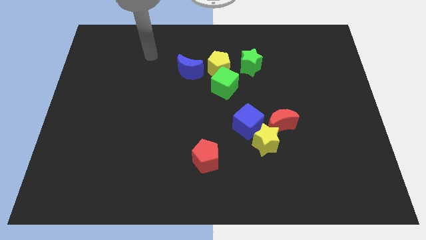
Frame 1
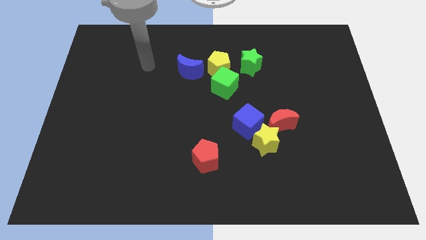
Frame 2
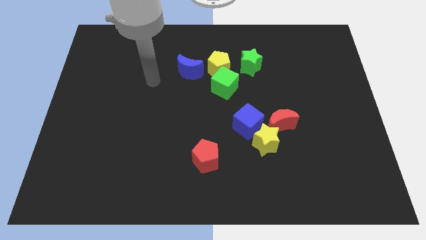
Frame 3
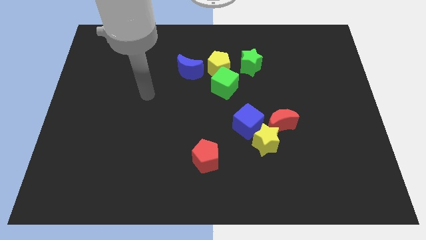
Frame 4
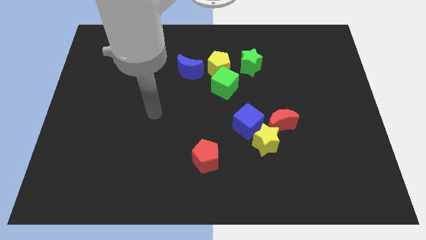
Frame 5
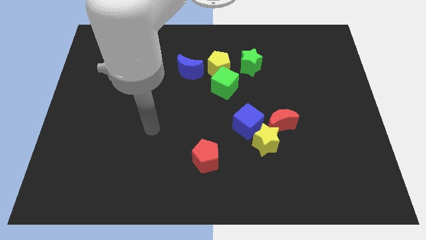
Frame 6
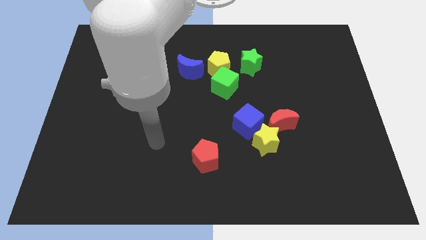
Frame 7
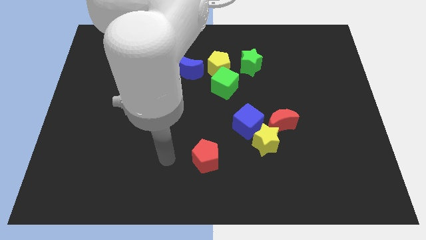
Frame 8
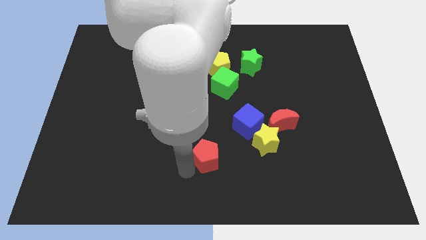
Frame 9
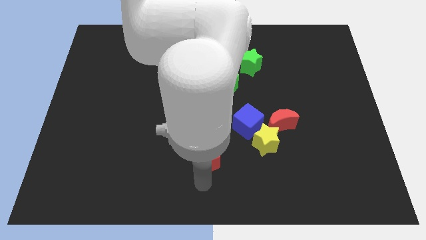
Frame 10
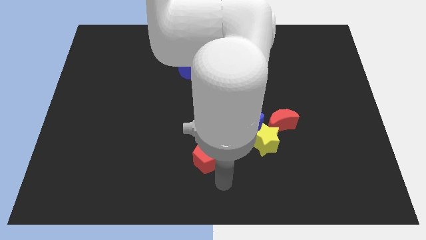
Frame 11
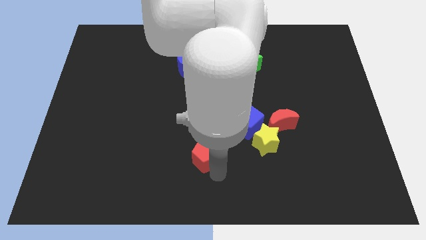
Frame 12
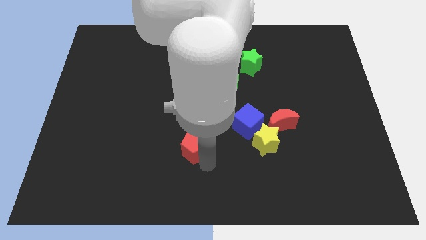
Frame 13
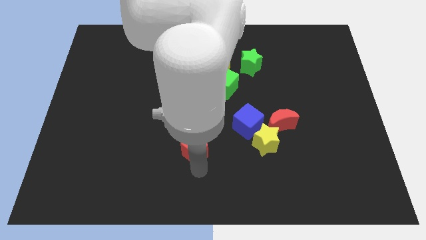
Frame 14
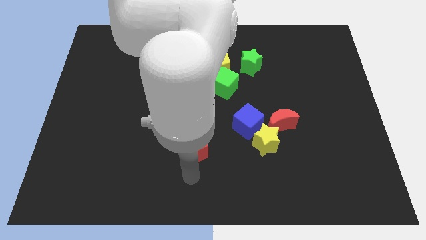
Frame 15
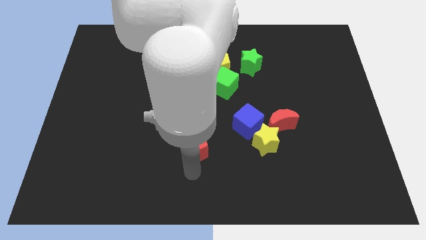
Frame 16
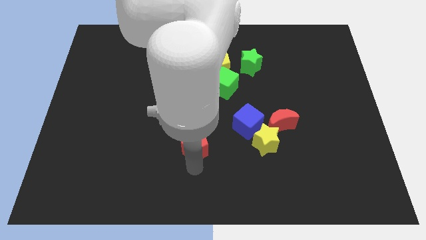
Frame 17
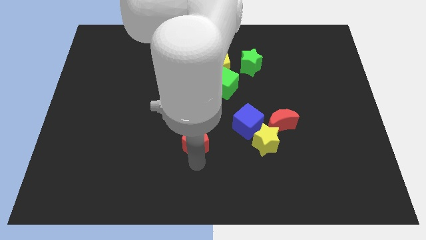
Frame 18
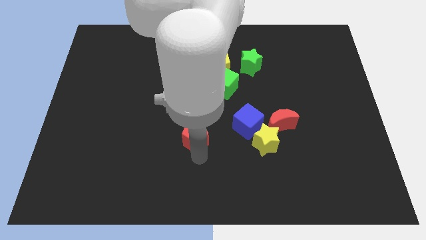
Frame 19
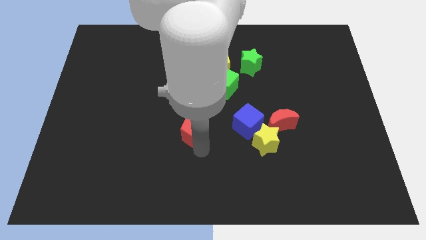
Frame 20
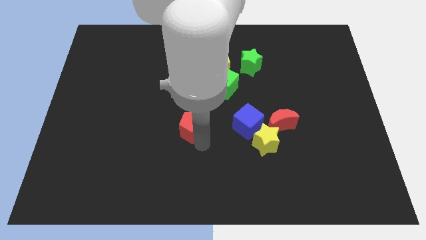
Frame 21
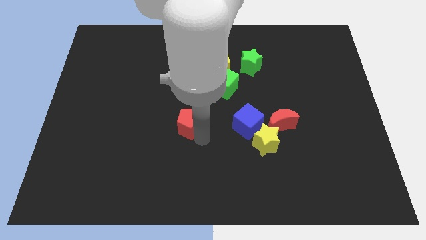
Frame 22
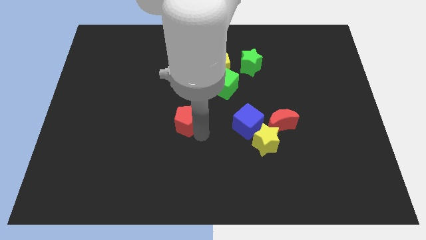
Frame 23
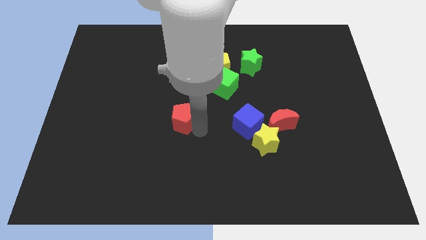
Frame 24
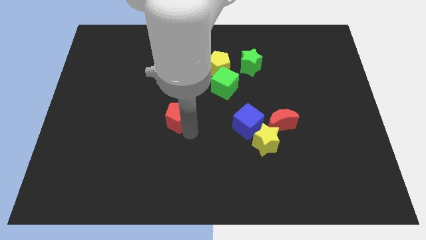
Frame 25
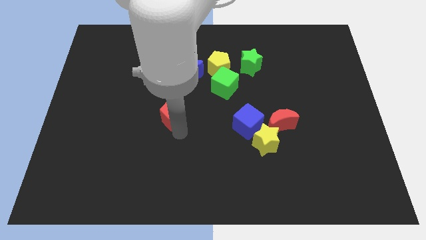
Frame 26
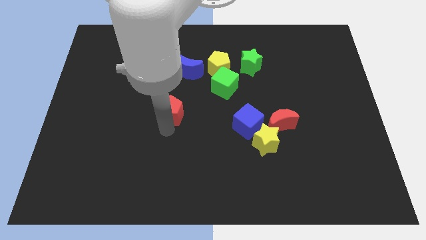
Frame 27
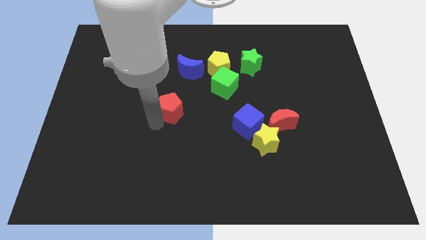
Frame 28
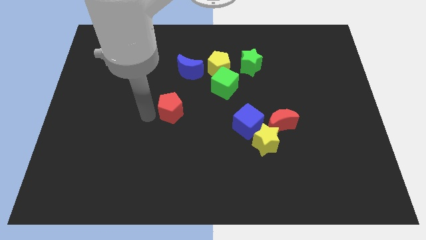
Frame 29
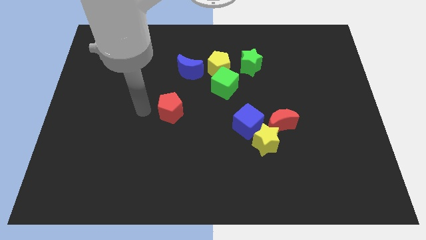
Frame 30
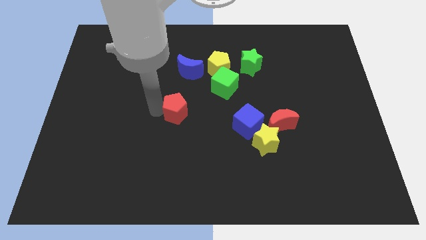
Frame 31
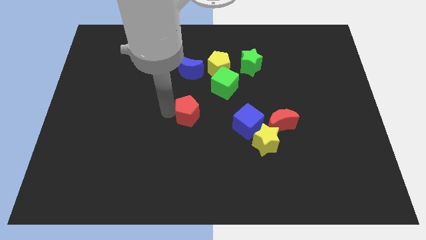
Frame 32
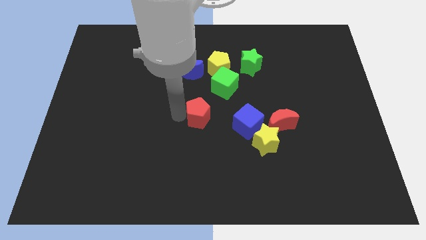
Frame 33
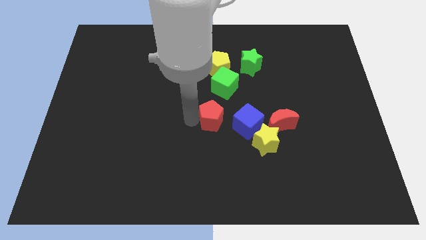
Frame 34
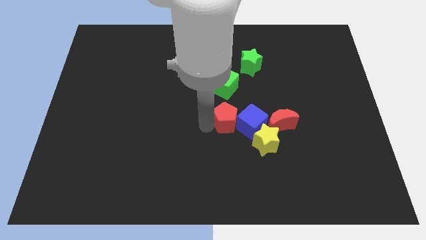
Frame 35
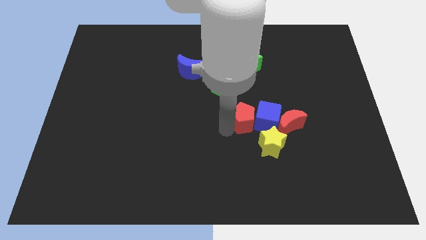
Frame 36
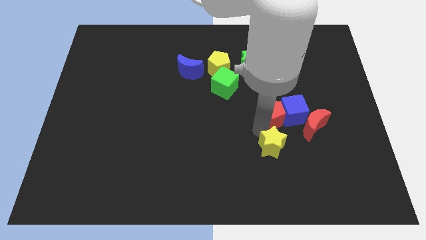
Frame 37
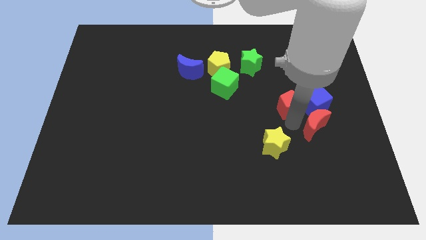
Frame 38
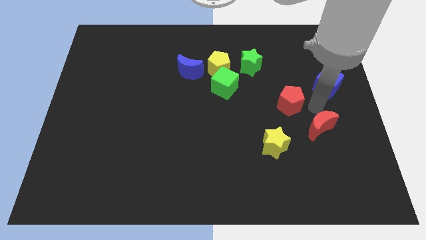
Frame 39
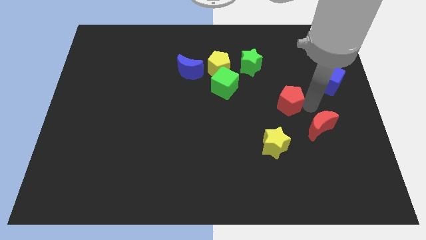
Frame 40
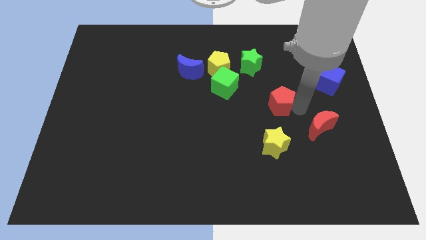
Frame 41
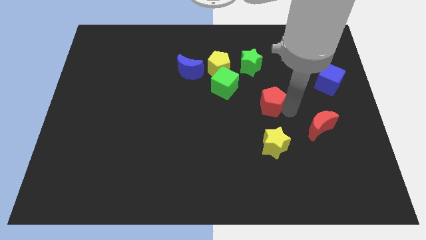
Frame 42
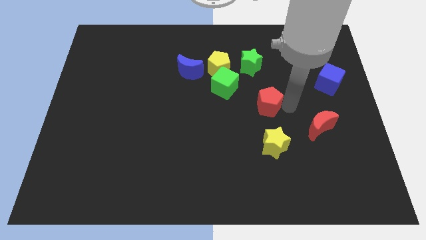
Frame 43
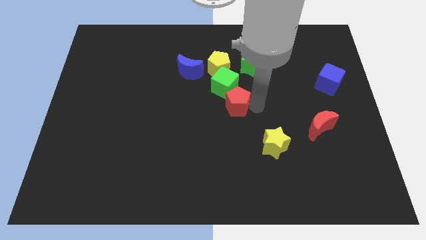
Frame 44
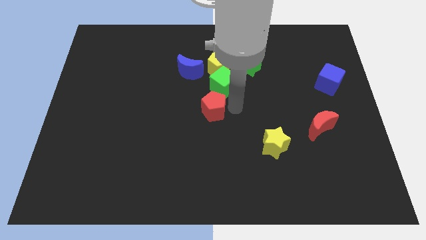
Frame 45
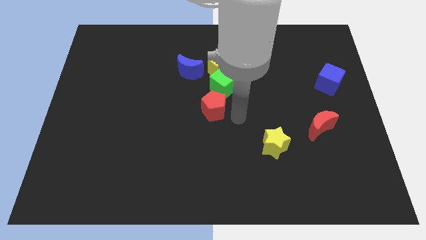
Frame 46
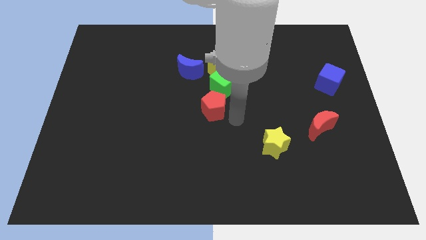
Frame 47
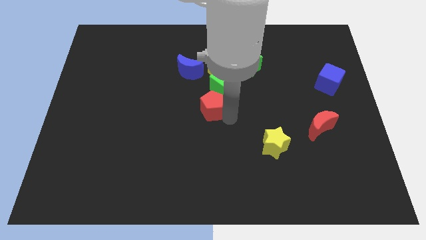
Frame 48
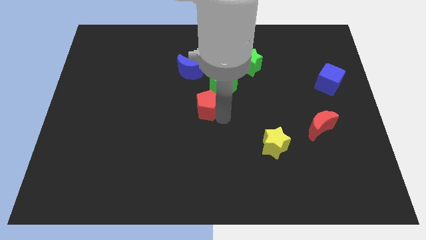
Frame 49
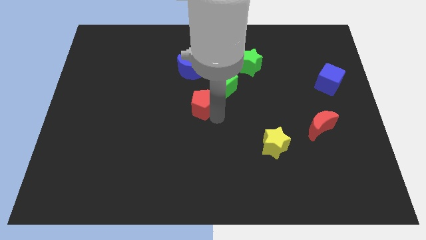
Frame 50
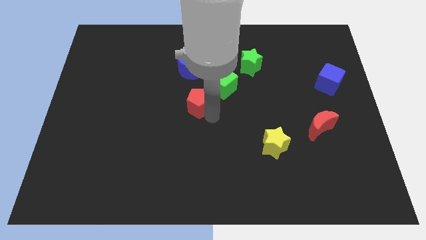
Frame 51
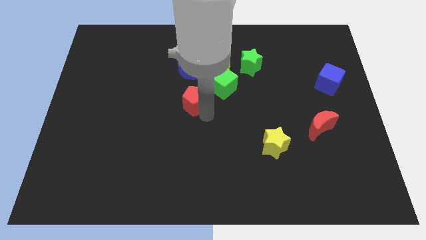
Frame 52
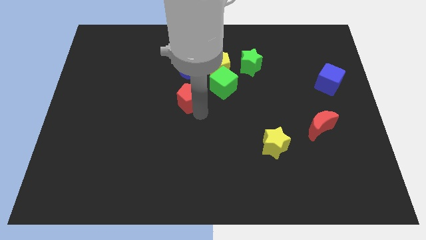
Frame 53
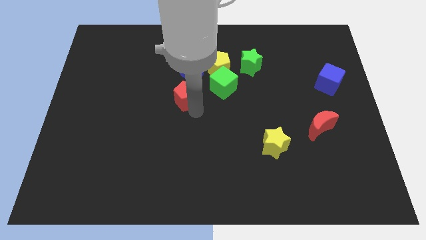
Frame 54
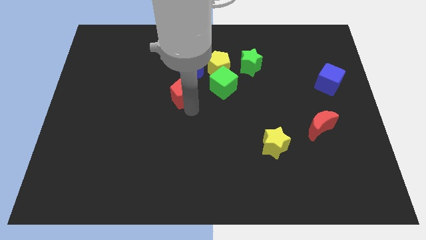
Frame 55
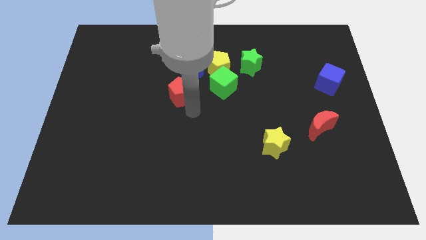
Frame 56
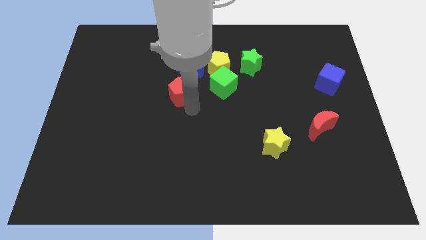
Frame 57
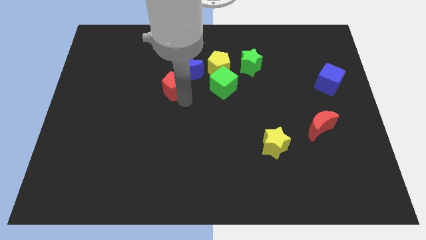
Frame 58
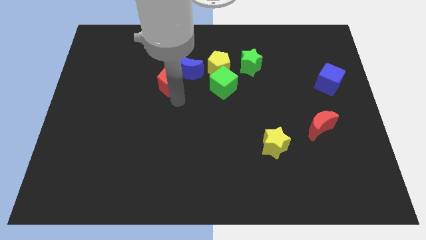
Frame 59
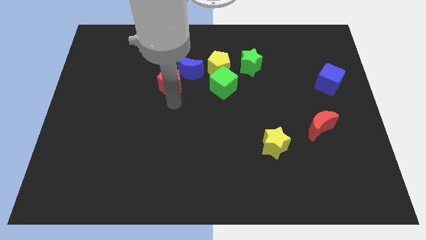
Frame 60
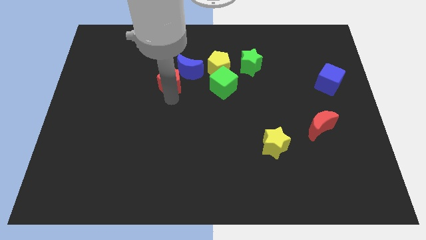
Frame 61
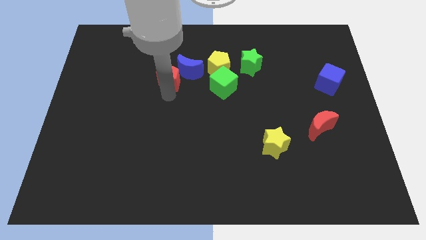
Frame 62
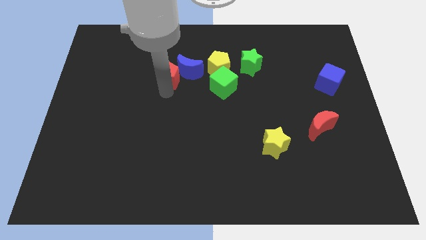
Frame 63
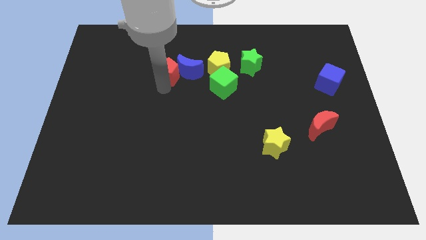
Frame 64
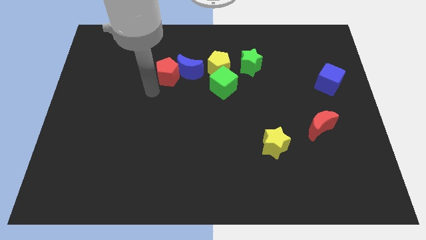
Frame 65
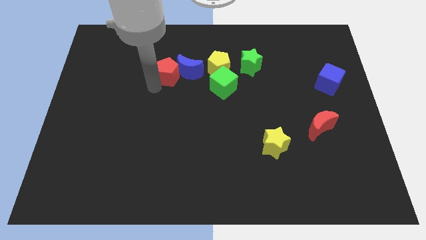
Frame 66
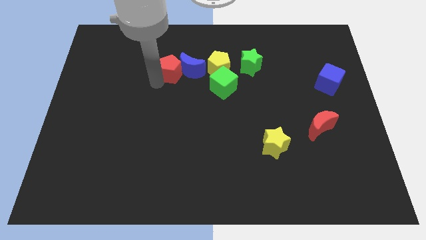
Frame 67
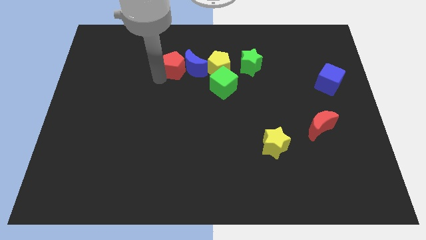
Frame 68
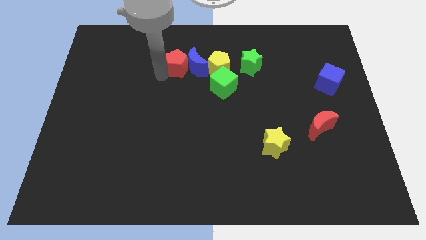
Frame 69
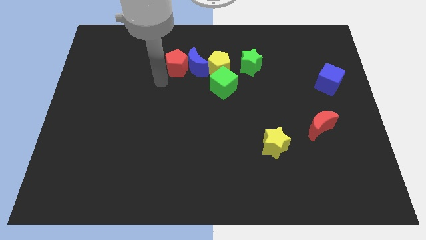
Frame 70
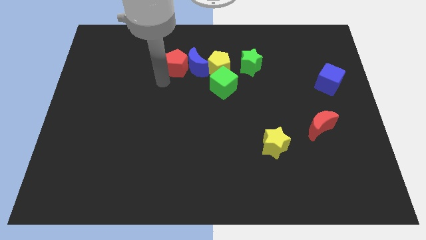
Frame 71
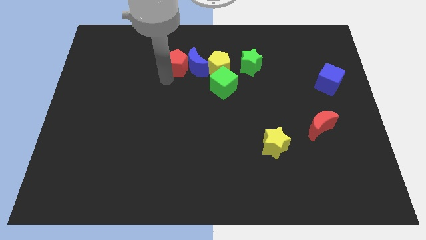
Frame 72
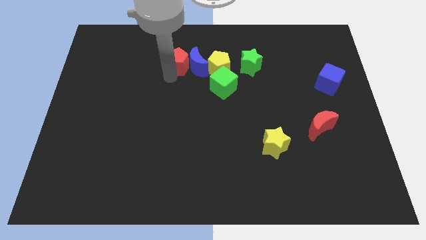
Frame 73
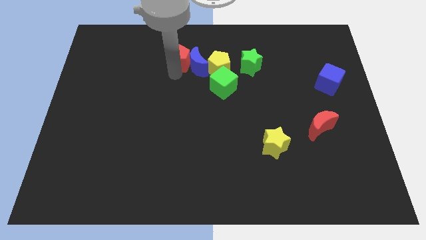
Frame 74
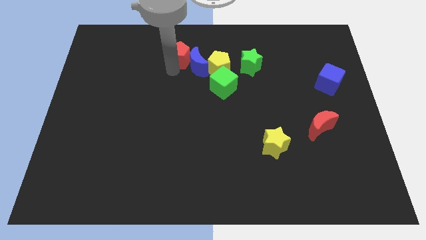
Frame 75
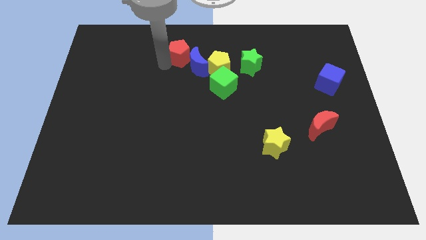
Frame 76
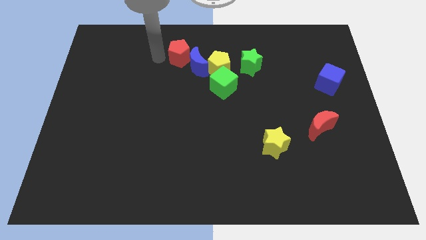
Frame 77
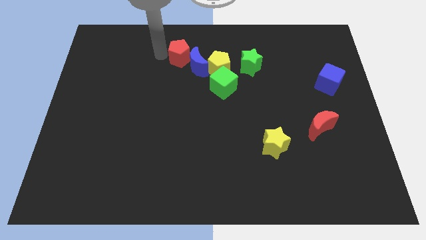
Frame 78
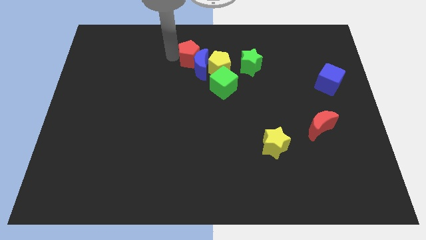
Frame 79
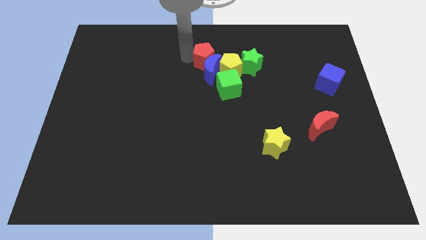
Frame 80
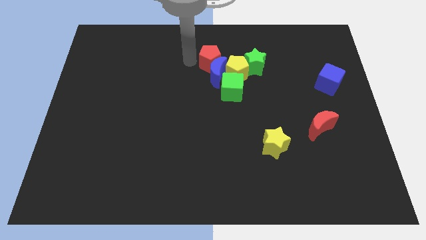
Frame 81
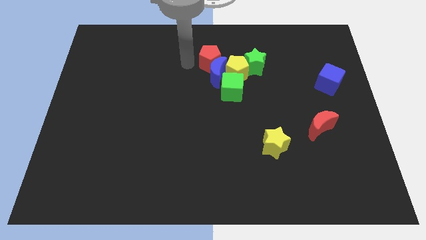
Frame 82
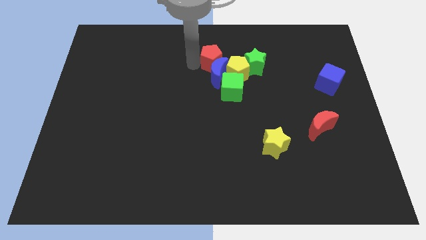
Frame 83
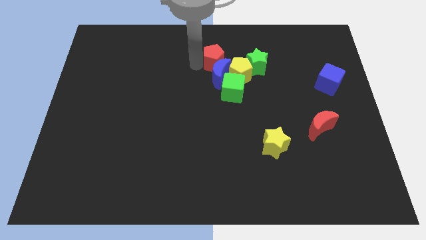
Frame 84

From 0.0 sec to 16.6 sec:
slide the red pentagon above the green cube

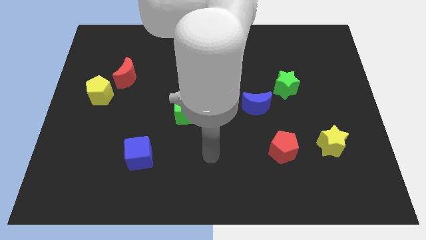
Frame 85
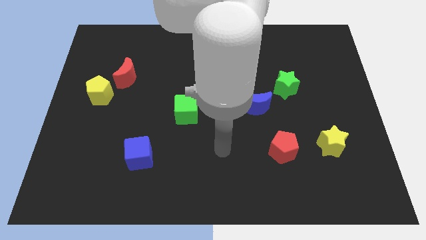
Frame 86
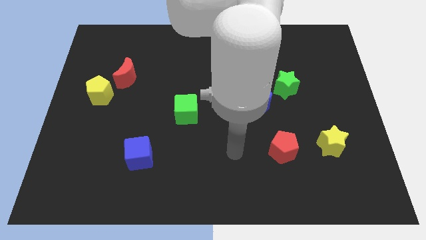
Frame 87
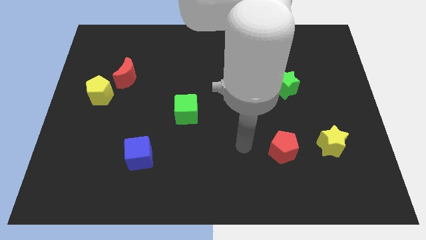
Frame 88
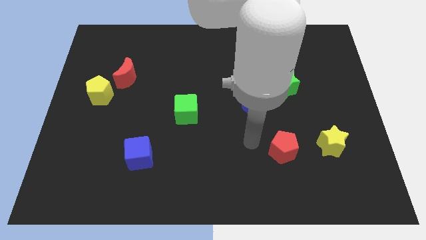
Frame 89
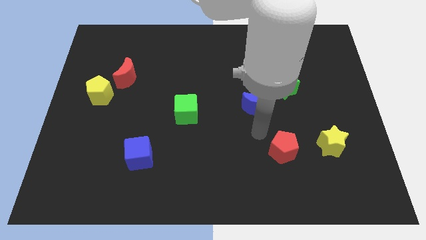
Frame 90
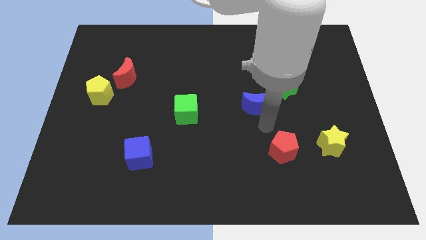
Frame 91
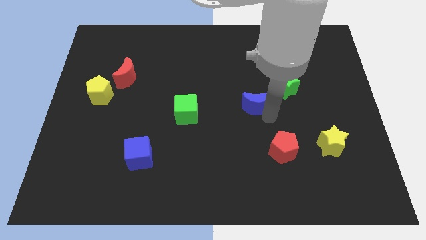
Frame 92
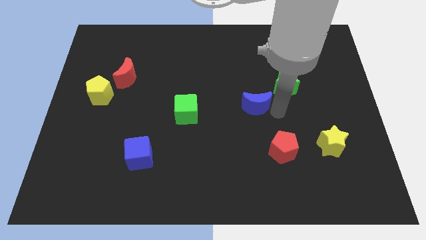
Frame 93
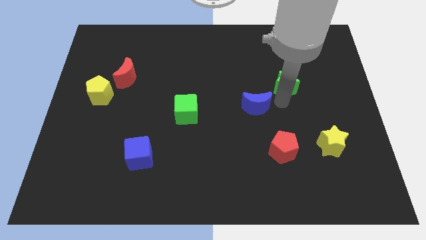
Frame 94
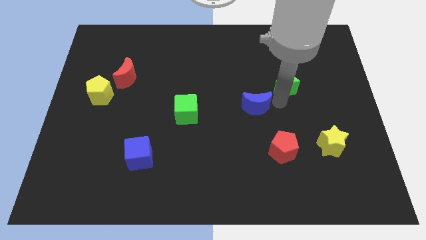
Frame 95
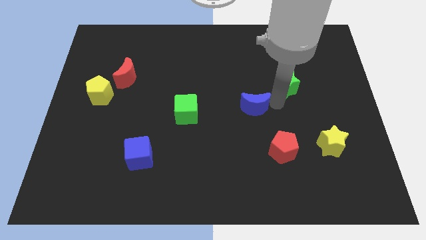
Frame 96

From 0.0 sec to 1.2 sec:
push the blue moon right of the green cube
